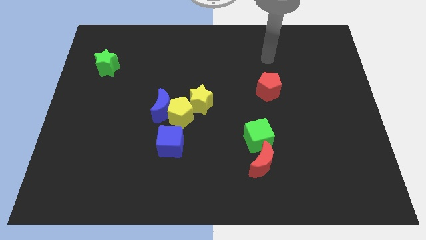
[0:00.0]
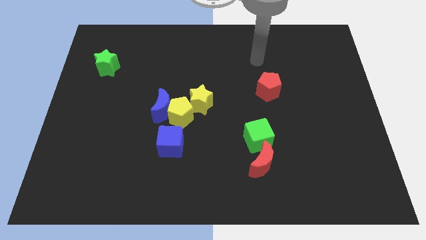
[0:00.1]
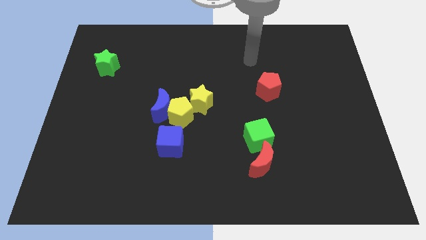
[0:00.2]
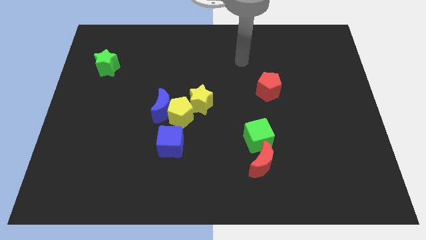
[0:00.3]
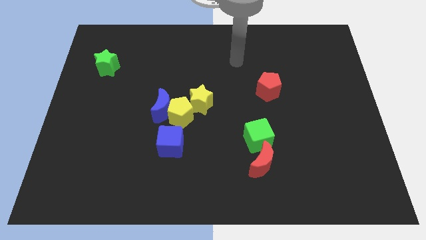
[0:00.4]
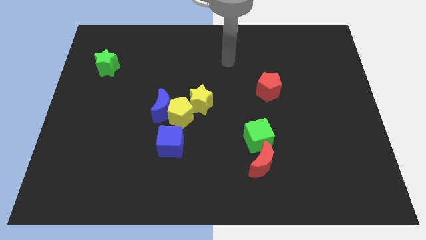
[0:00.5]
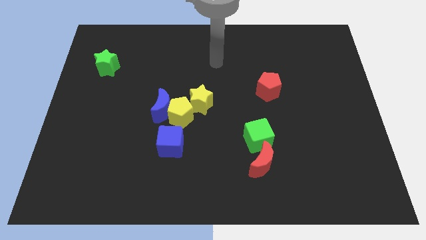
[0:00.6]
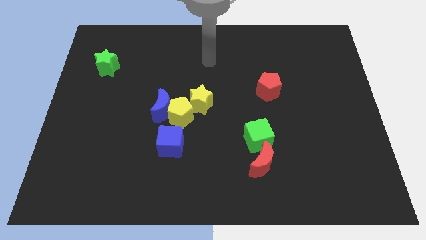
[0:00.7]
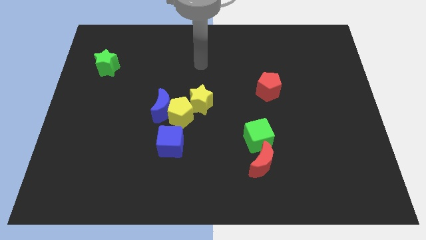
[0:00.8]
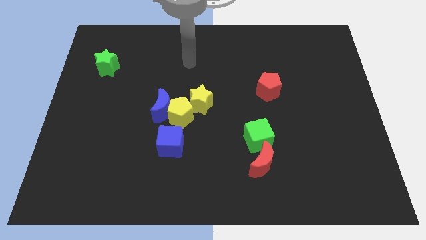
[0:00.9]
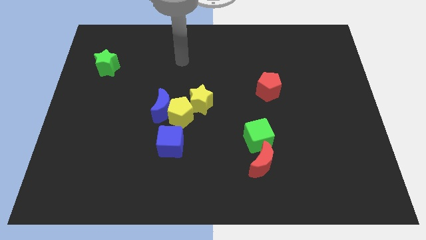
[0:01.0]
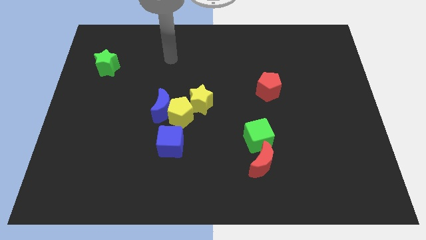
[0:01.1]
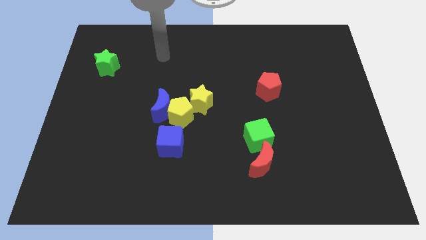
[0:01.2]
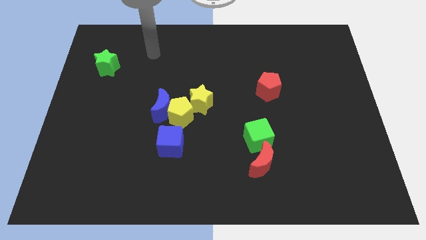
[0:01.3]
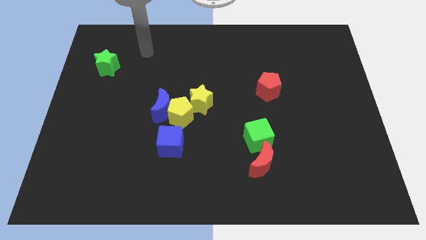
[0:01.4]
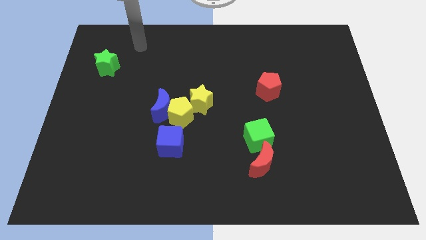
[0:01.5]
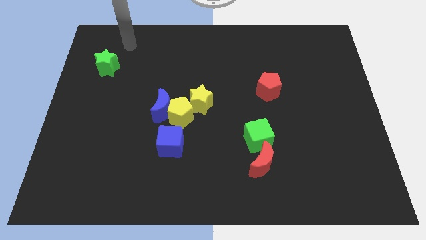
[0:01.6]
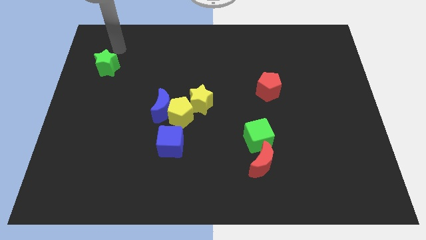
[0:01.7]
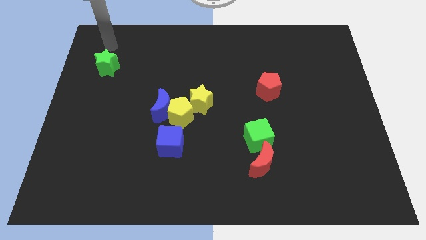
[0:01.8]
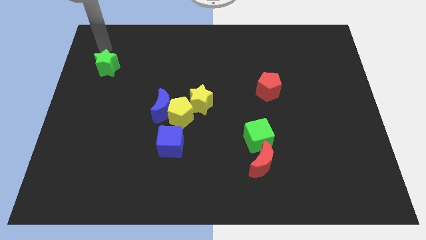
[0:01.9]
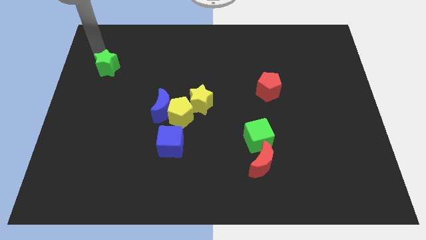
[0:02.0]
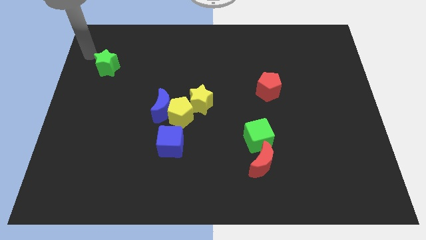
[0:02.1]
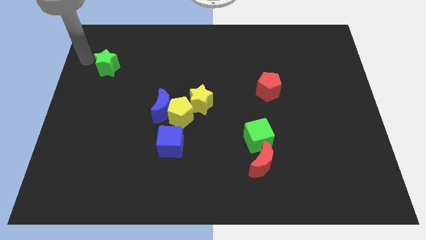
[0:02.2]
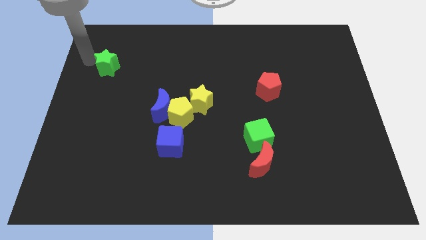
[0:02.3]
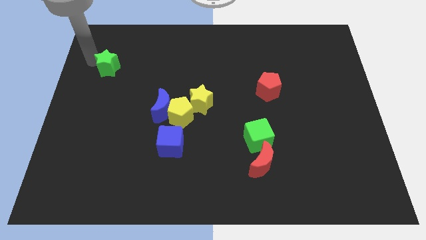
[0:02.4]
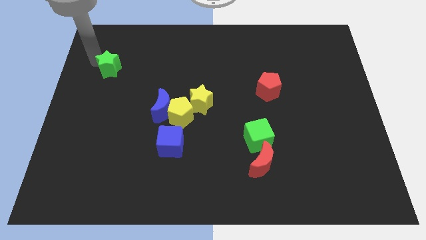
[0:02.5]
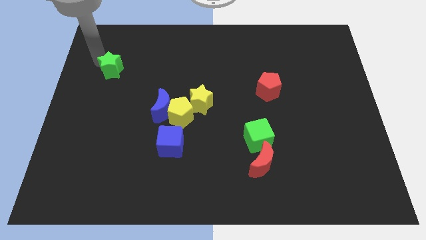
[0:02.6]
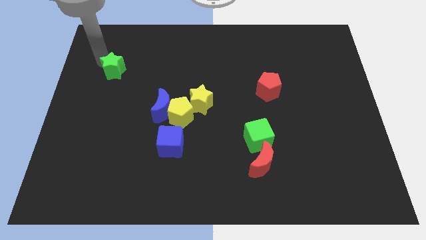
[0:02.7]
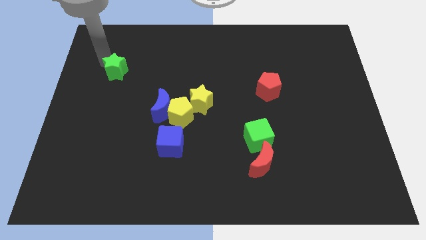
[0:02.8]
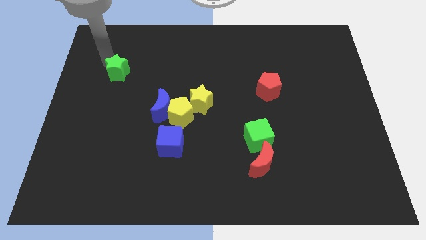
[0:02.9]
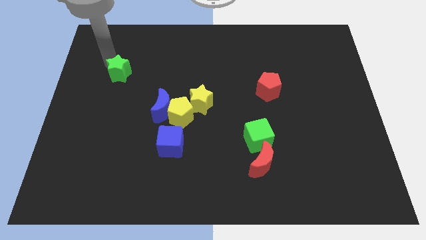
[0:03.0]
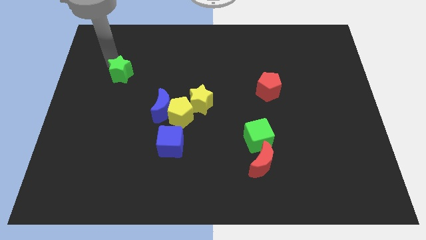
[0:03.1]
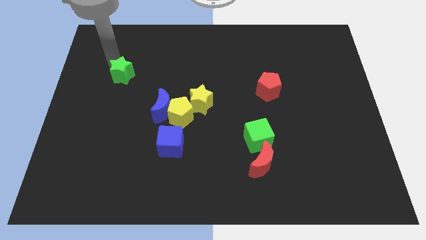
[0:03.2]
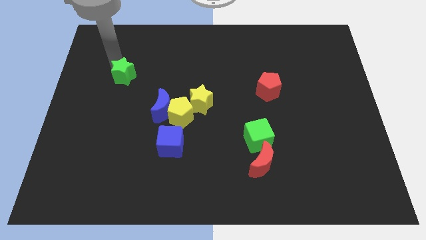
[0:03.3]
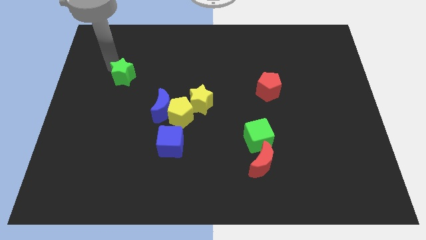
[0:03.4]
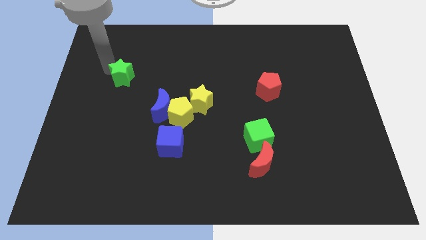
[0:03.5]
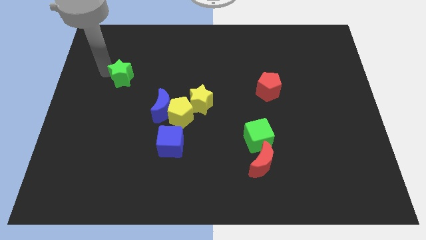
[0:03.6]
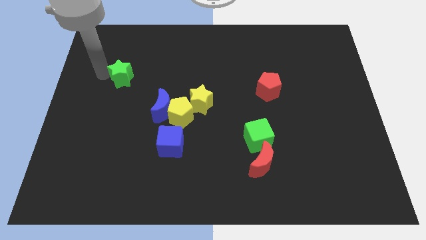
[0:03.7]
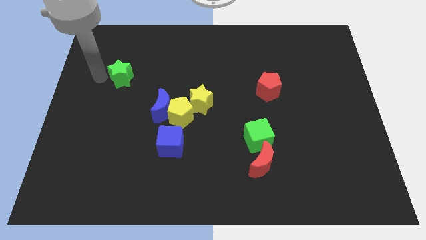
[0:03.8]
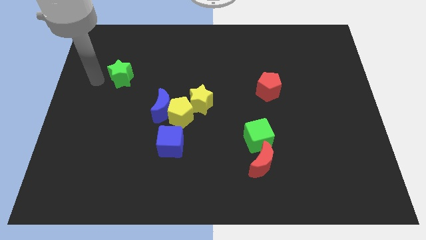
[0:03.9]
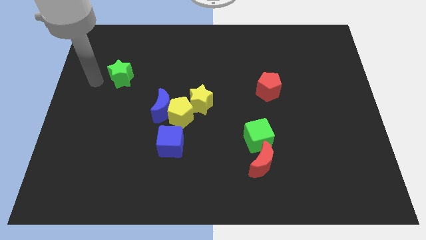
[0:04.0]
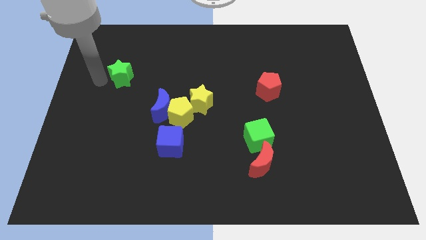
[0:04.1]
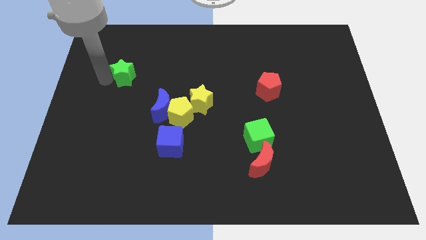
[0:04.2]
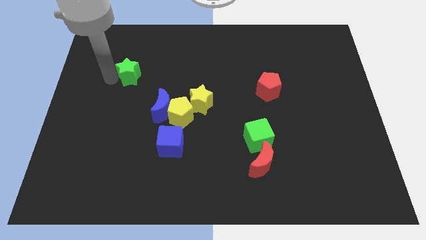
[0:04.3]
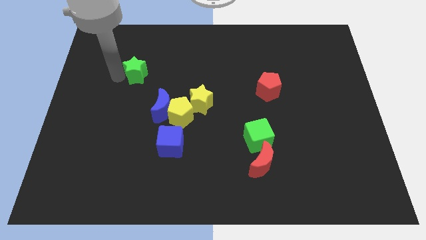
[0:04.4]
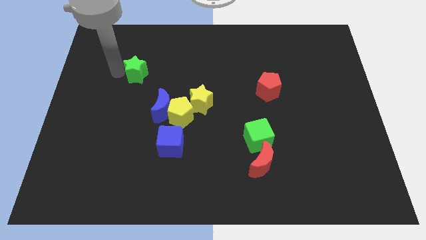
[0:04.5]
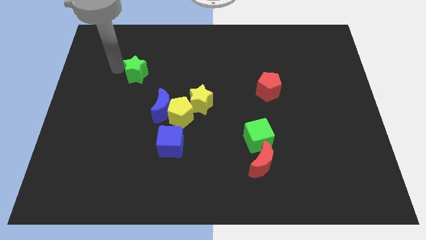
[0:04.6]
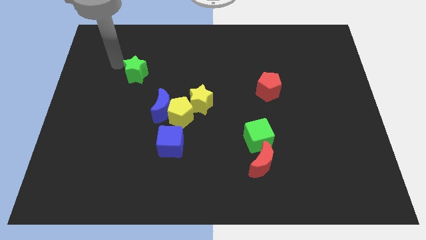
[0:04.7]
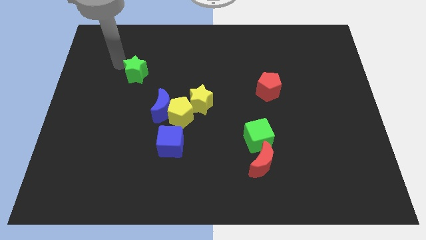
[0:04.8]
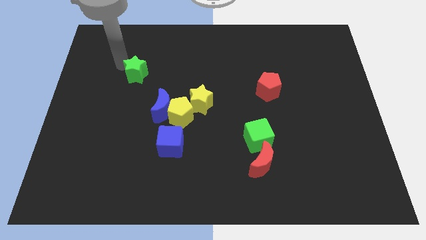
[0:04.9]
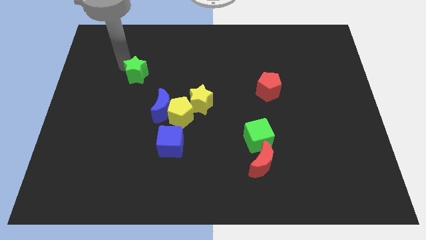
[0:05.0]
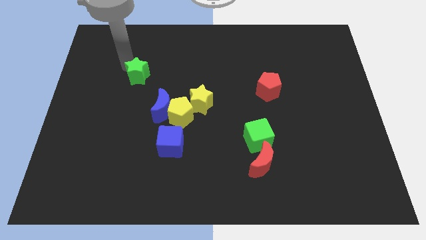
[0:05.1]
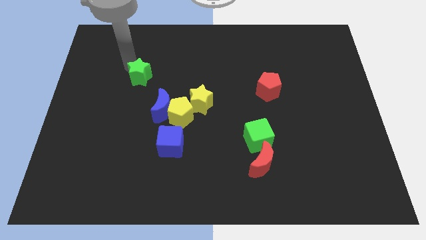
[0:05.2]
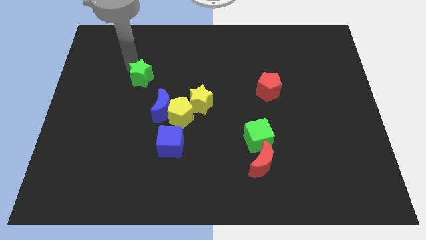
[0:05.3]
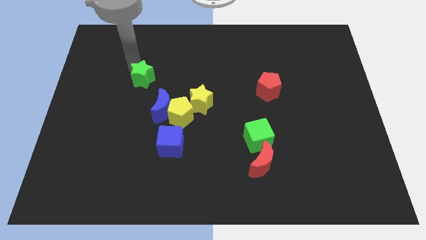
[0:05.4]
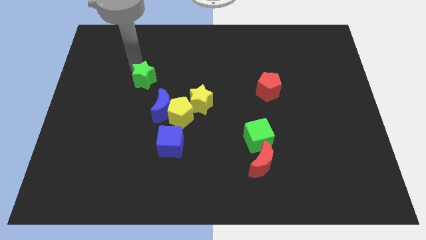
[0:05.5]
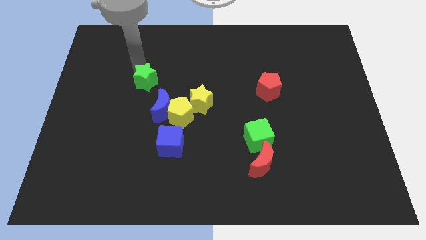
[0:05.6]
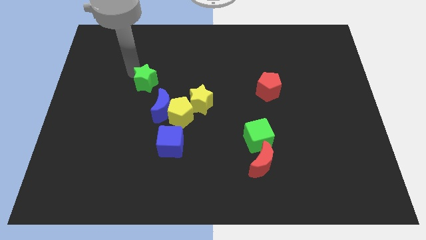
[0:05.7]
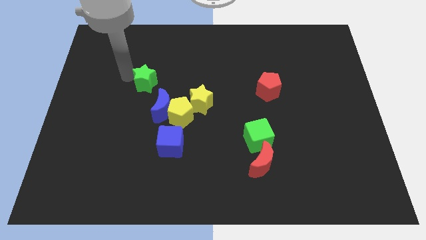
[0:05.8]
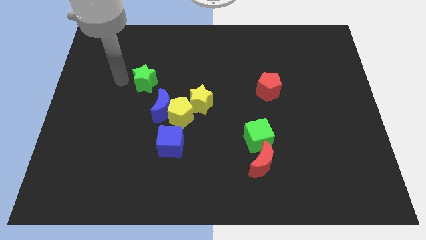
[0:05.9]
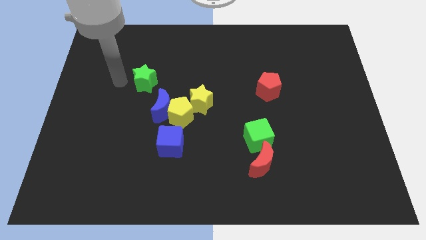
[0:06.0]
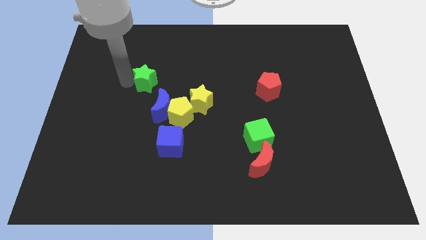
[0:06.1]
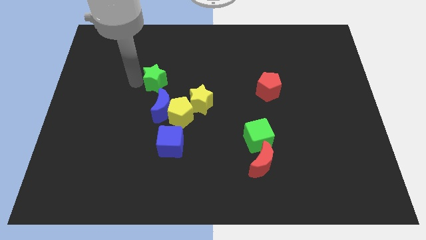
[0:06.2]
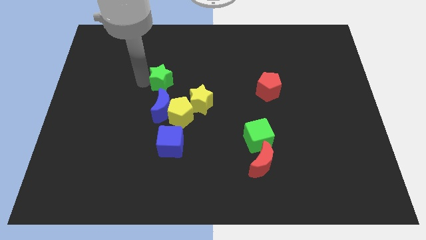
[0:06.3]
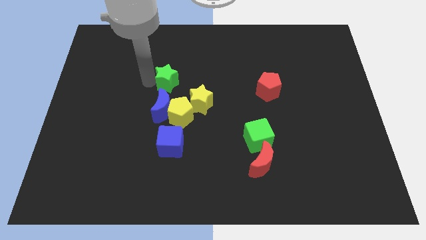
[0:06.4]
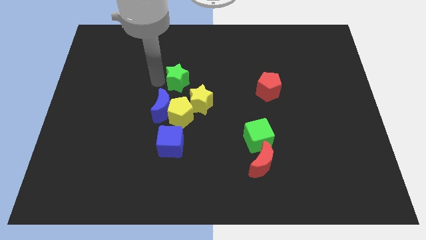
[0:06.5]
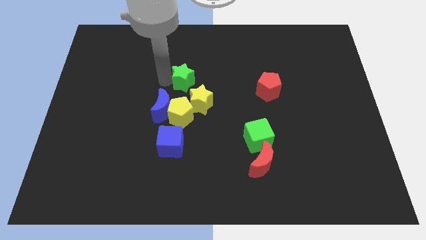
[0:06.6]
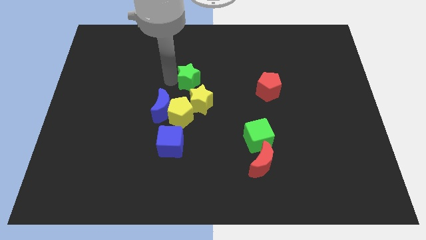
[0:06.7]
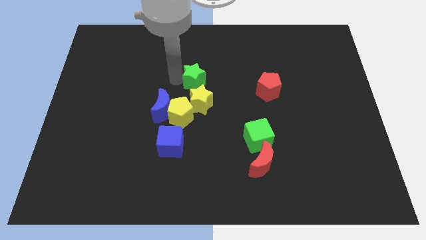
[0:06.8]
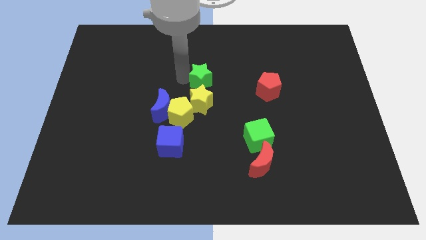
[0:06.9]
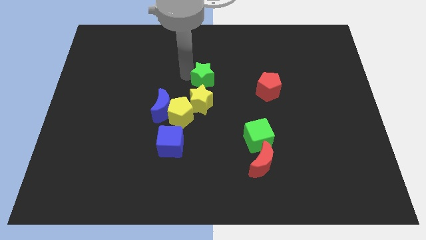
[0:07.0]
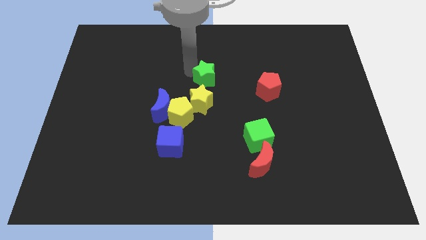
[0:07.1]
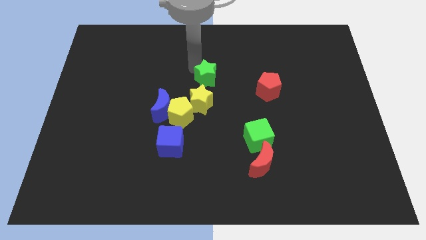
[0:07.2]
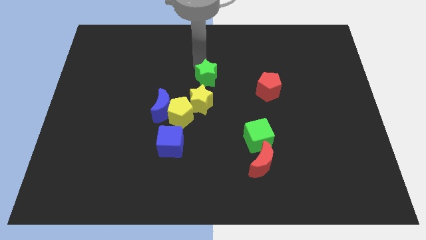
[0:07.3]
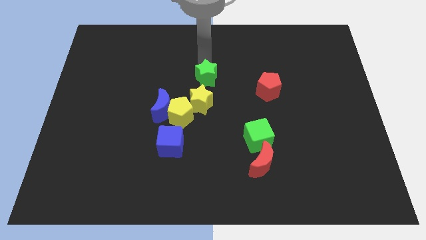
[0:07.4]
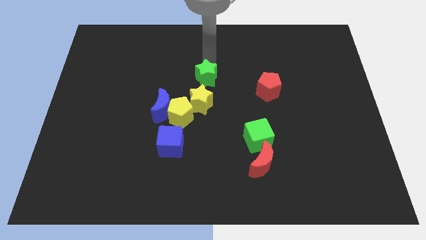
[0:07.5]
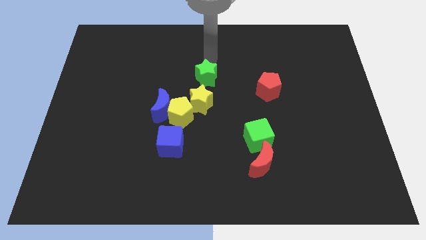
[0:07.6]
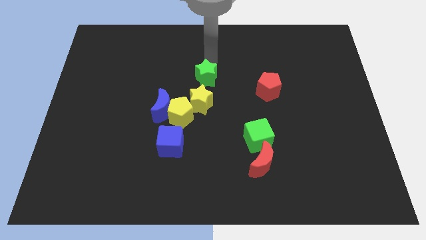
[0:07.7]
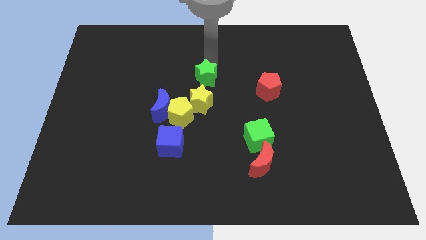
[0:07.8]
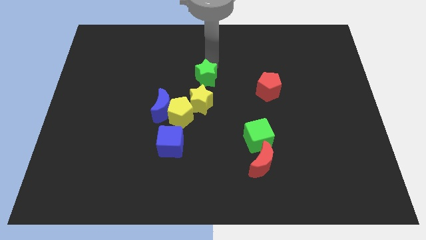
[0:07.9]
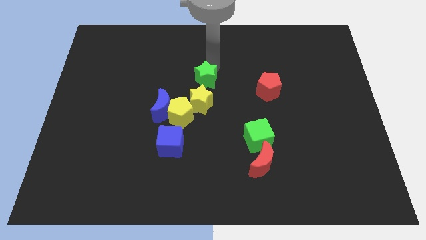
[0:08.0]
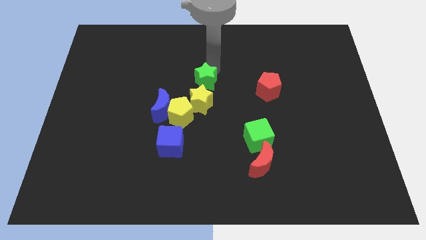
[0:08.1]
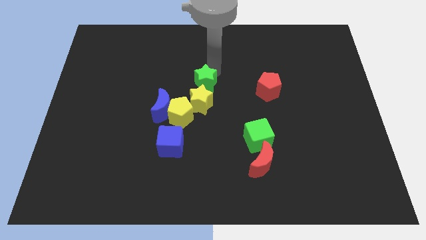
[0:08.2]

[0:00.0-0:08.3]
slide the green star diagonally up and to the right of the yellow pentagon
